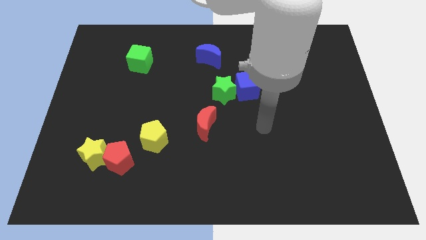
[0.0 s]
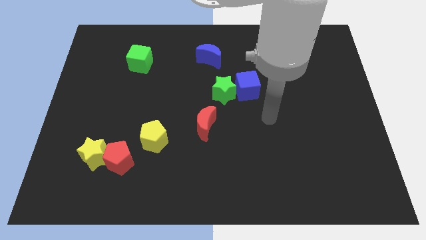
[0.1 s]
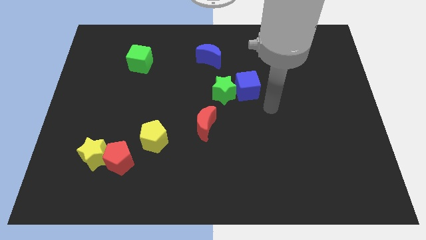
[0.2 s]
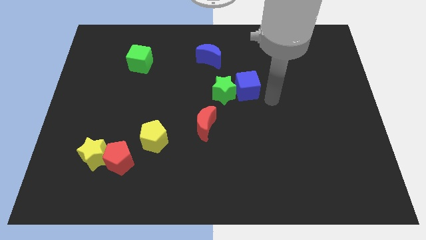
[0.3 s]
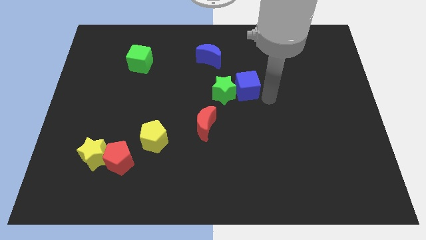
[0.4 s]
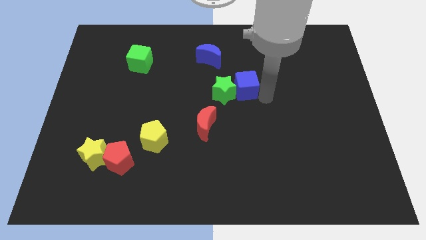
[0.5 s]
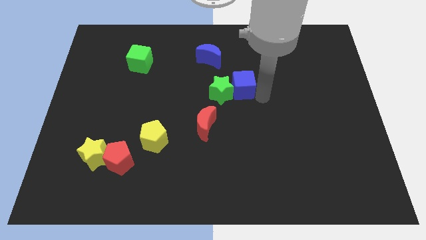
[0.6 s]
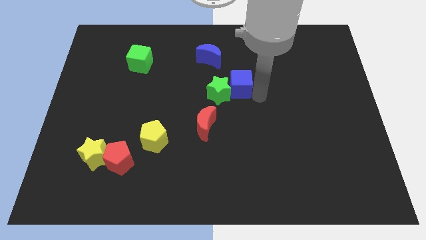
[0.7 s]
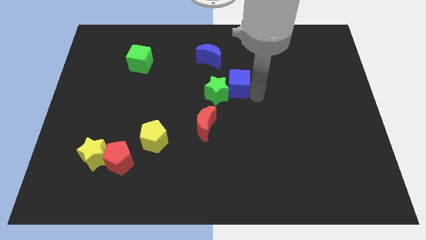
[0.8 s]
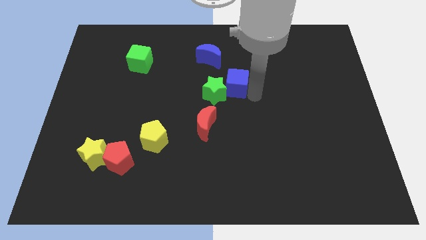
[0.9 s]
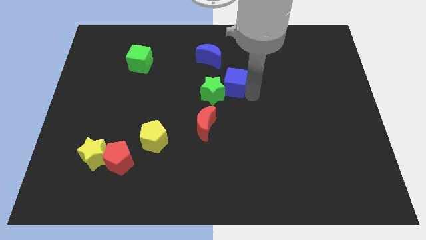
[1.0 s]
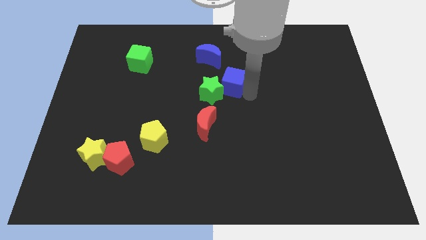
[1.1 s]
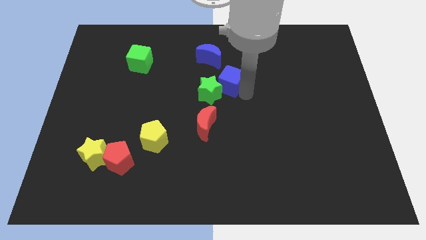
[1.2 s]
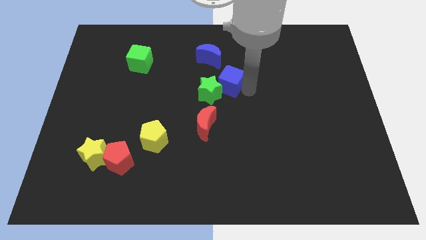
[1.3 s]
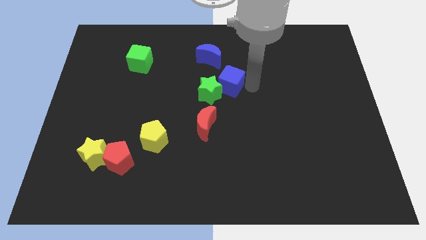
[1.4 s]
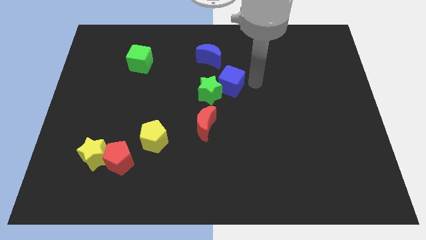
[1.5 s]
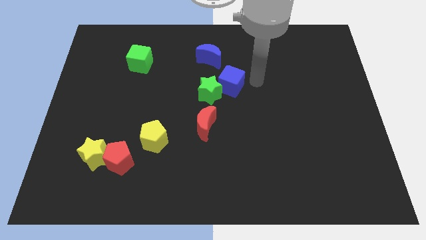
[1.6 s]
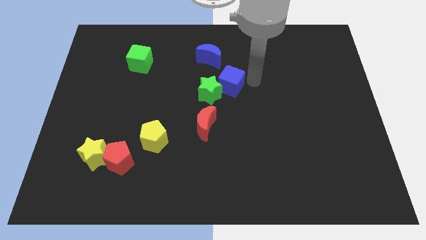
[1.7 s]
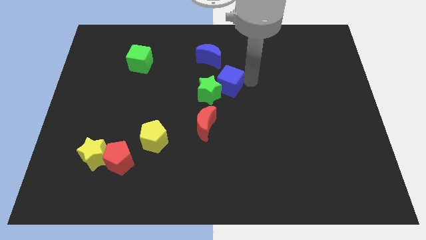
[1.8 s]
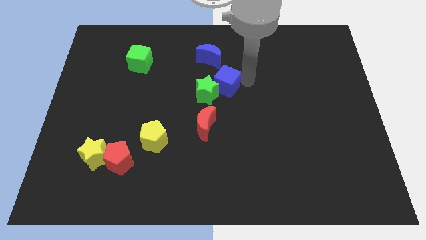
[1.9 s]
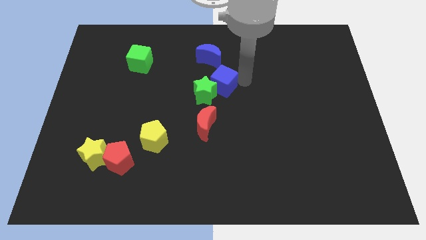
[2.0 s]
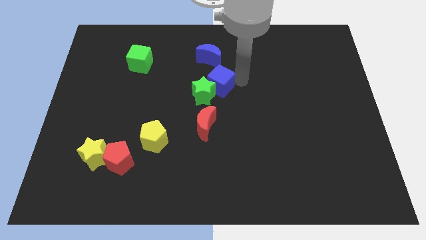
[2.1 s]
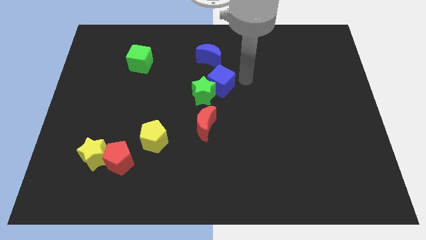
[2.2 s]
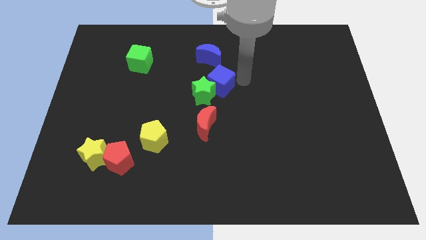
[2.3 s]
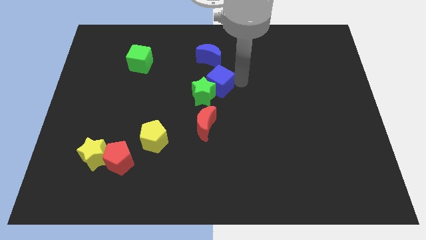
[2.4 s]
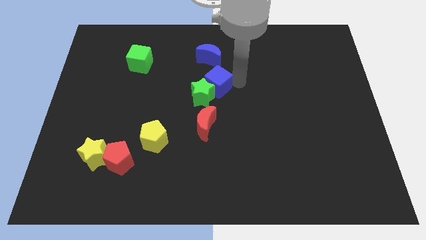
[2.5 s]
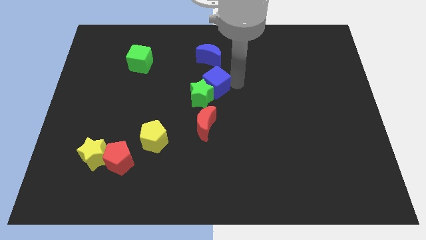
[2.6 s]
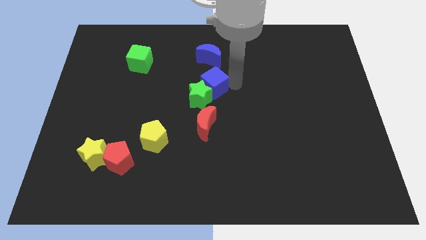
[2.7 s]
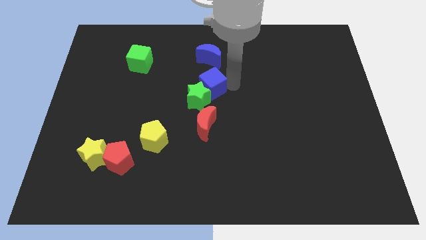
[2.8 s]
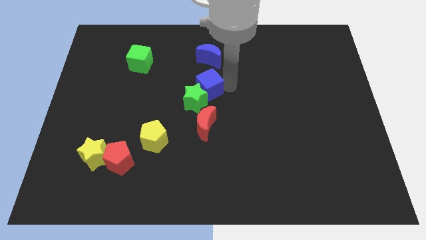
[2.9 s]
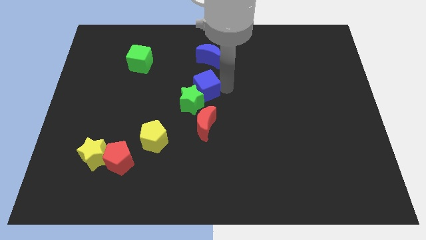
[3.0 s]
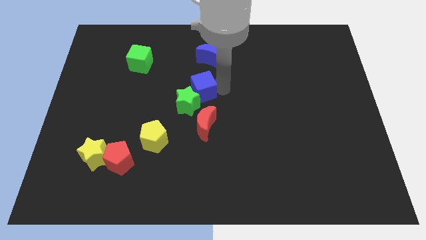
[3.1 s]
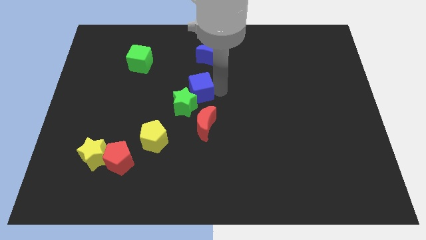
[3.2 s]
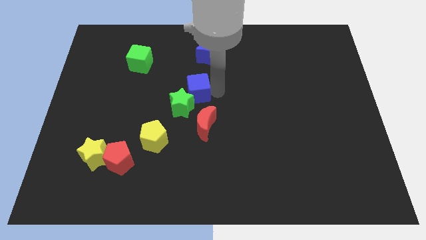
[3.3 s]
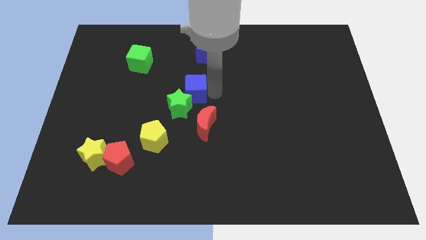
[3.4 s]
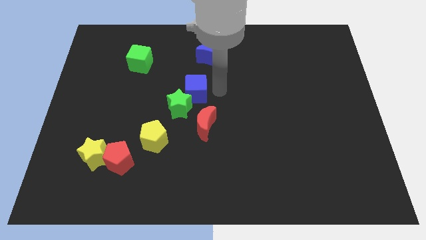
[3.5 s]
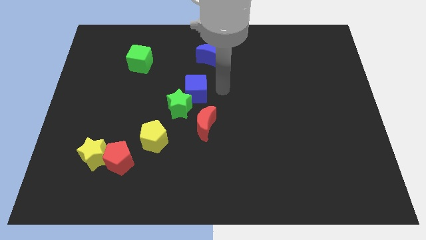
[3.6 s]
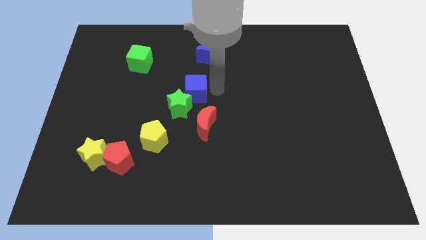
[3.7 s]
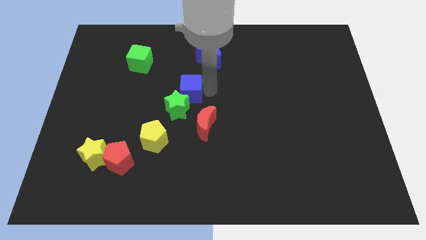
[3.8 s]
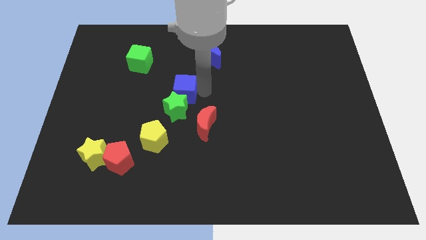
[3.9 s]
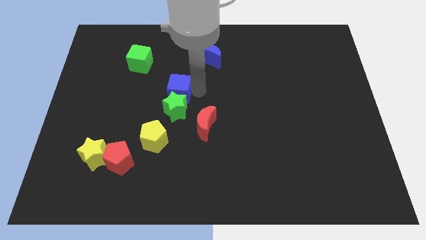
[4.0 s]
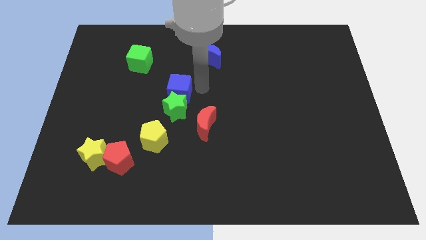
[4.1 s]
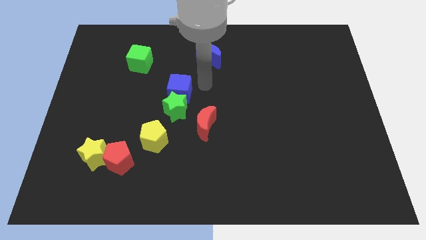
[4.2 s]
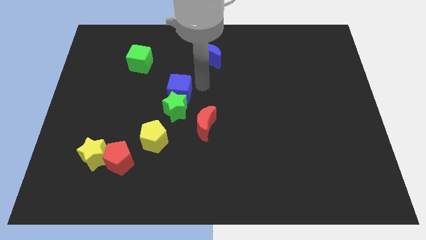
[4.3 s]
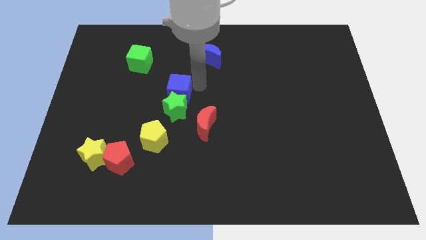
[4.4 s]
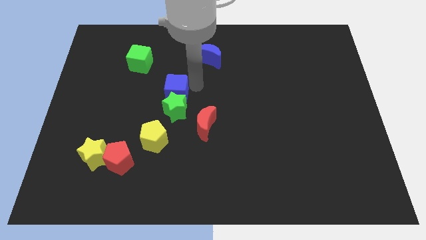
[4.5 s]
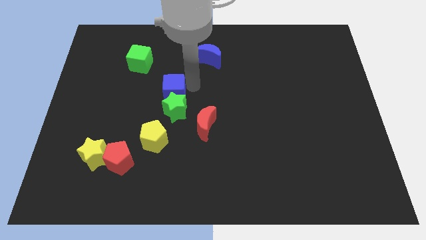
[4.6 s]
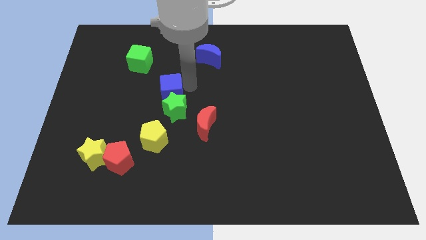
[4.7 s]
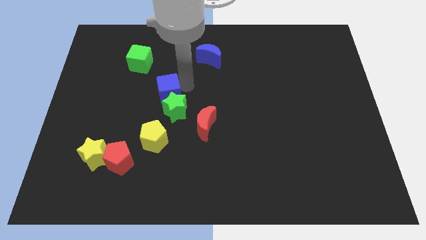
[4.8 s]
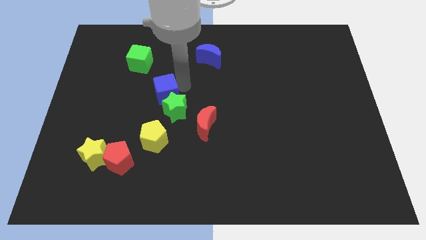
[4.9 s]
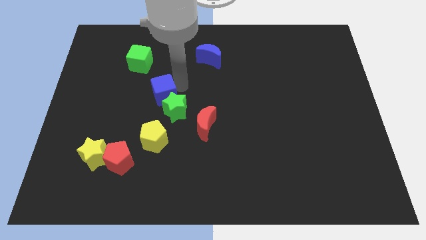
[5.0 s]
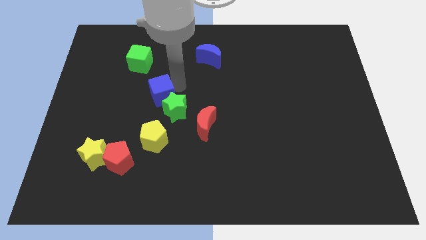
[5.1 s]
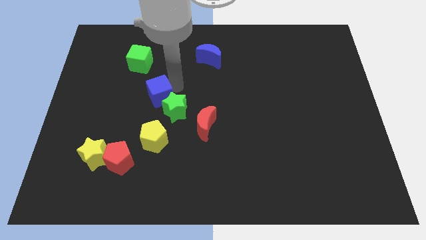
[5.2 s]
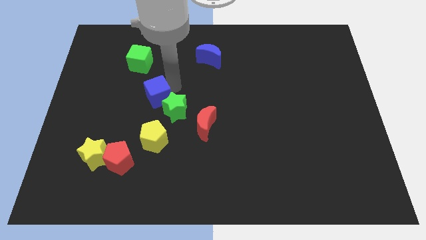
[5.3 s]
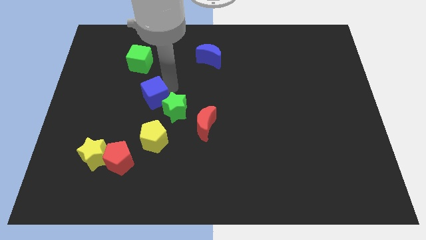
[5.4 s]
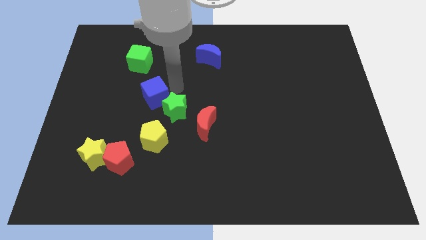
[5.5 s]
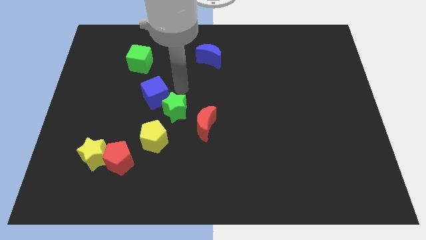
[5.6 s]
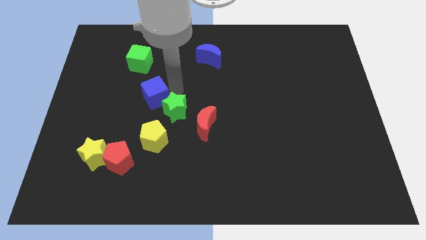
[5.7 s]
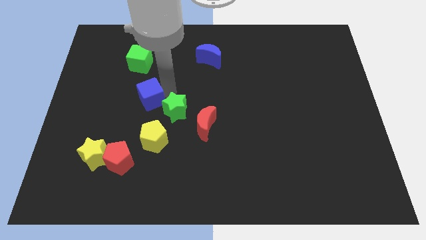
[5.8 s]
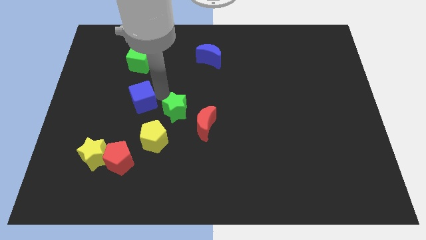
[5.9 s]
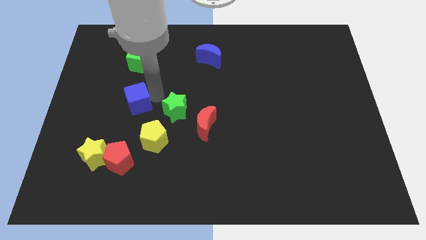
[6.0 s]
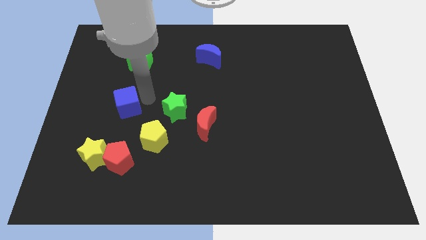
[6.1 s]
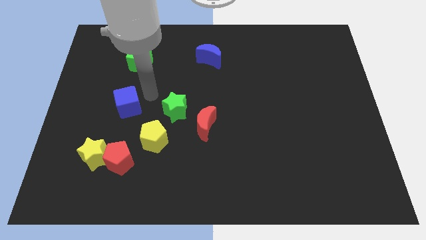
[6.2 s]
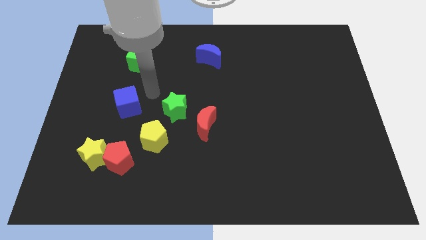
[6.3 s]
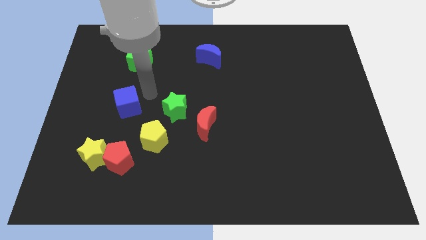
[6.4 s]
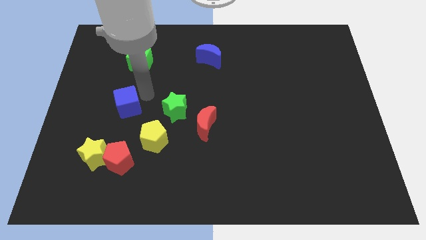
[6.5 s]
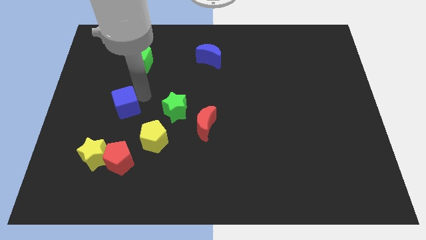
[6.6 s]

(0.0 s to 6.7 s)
move the blue cube to the top of the yellow star

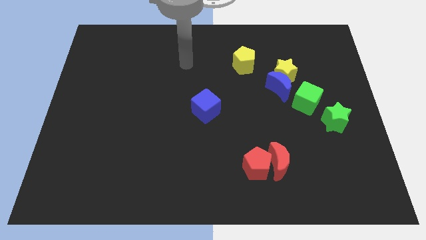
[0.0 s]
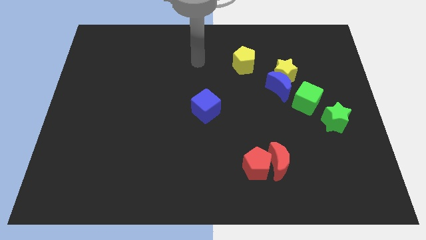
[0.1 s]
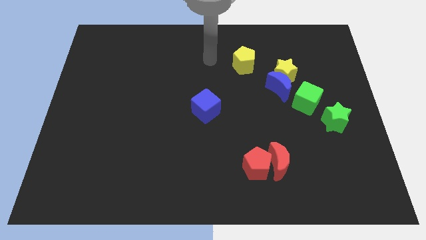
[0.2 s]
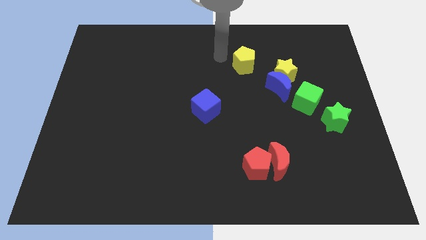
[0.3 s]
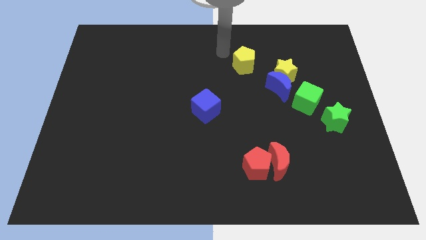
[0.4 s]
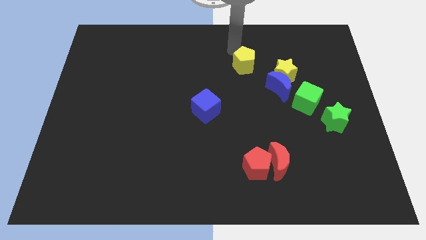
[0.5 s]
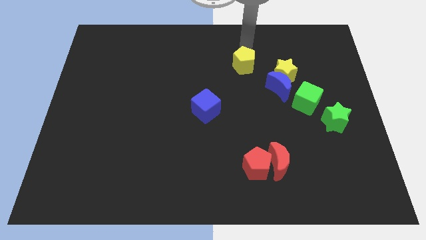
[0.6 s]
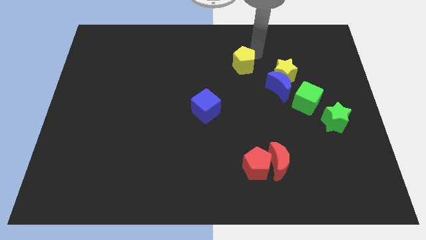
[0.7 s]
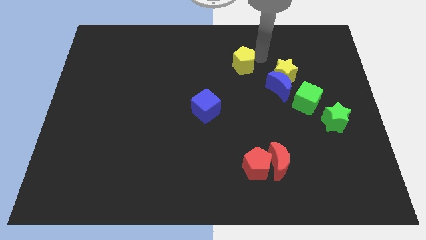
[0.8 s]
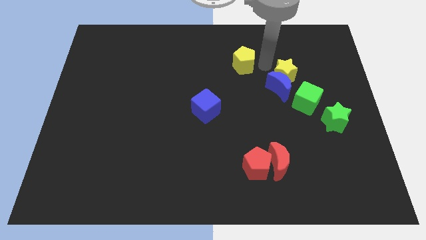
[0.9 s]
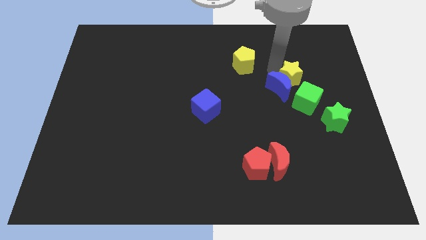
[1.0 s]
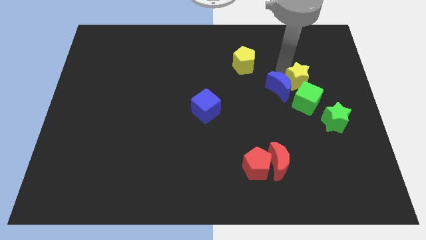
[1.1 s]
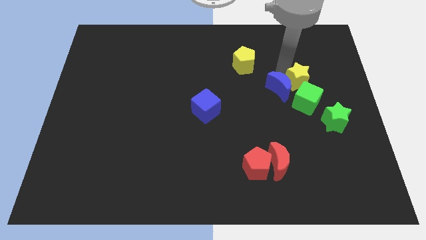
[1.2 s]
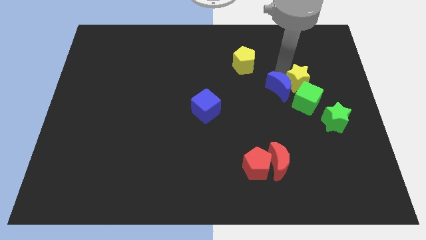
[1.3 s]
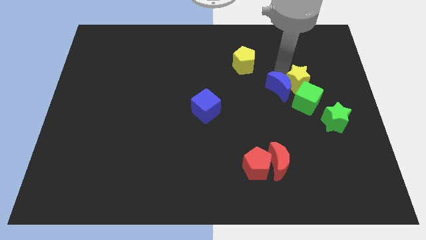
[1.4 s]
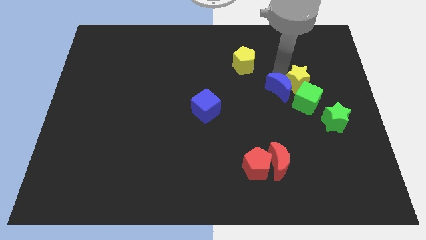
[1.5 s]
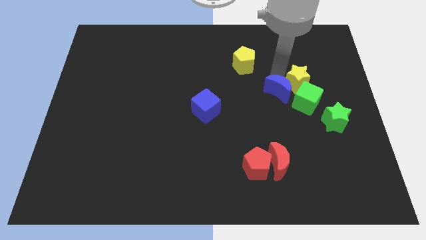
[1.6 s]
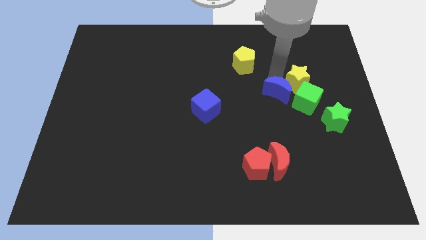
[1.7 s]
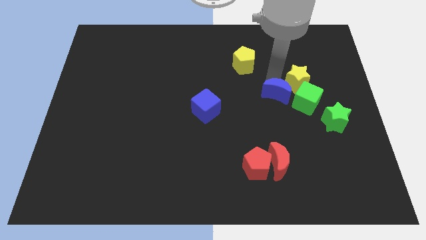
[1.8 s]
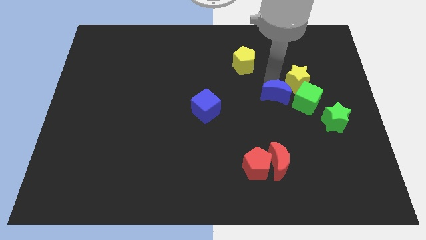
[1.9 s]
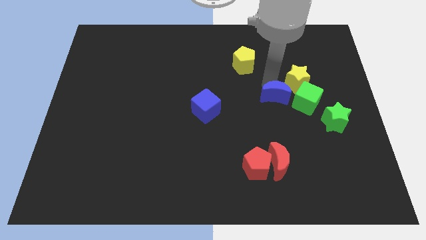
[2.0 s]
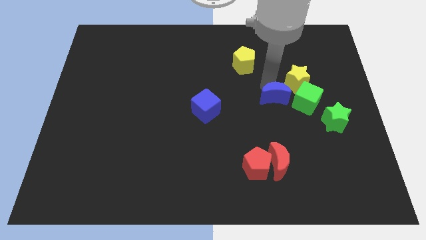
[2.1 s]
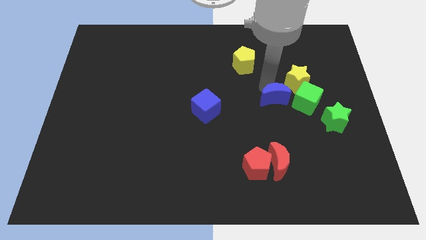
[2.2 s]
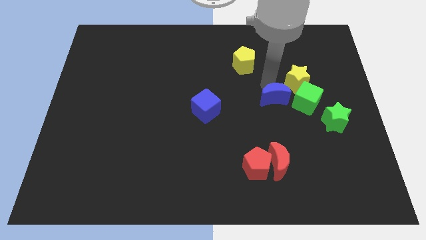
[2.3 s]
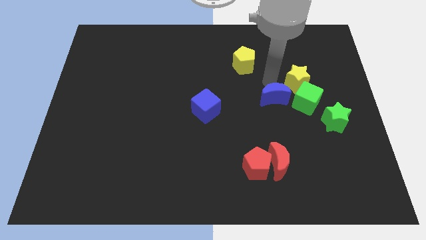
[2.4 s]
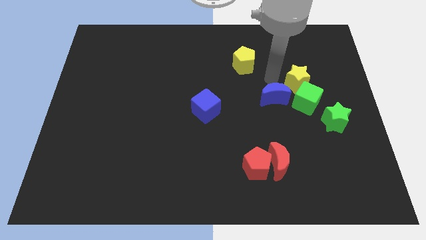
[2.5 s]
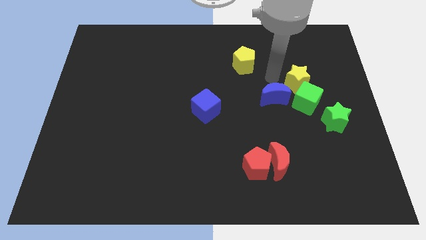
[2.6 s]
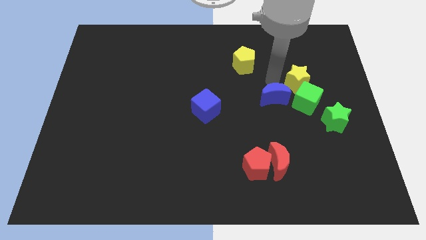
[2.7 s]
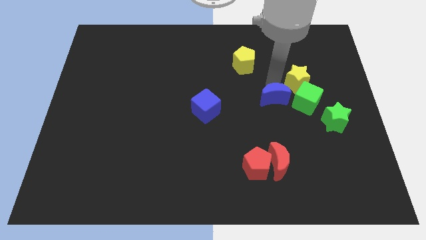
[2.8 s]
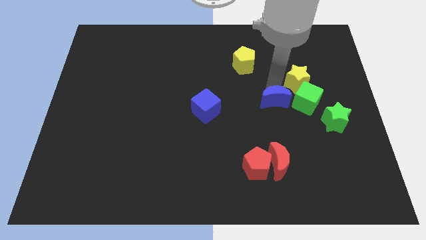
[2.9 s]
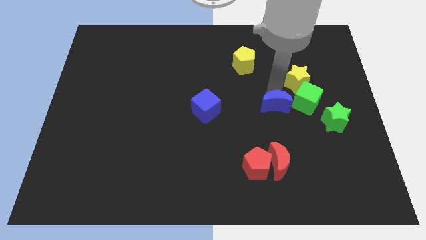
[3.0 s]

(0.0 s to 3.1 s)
push the blue moon to the top side of the red moon
